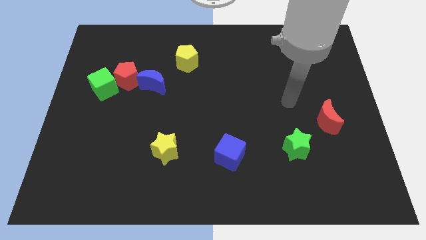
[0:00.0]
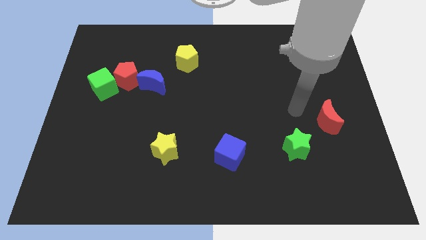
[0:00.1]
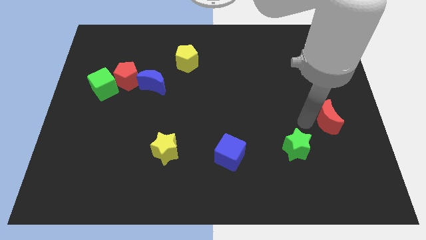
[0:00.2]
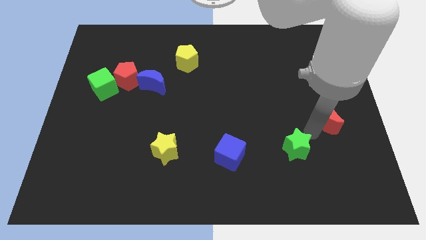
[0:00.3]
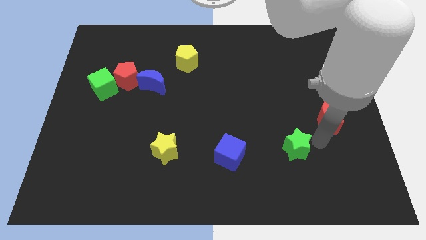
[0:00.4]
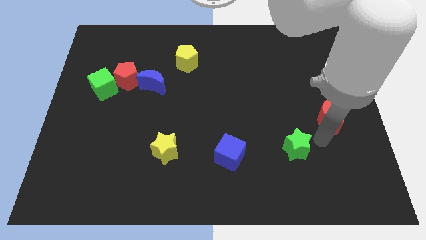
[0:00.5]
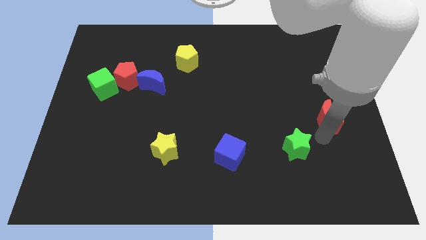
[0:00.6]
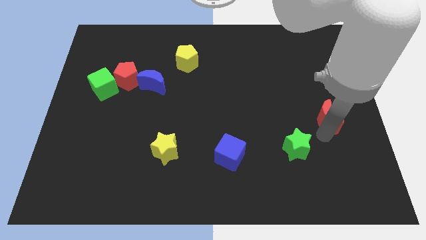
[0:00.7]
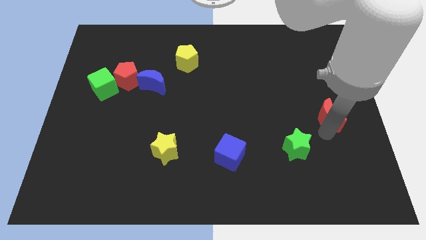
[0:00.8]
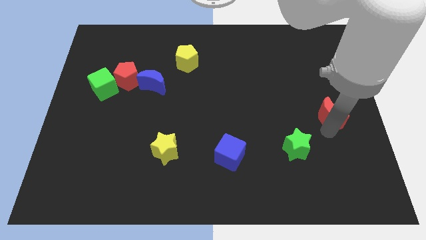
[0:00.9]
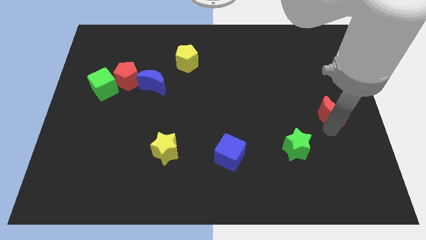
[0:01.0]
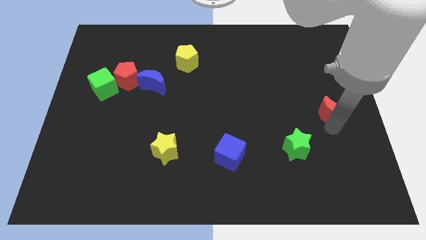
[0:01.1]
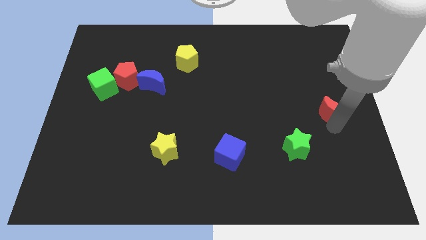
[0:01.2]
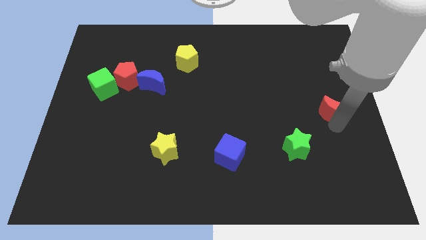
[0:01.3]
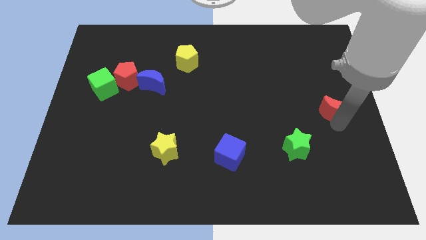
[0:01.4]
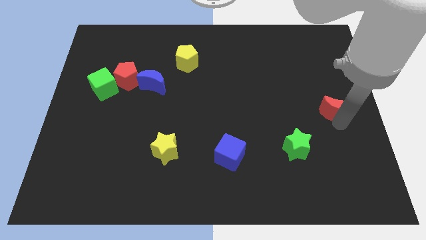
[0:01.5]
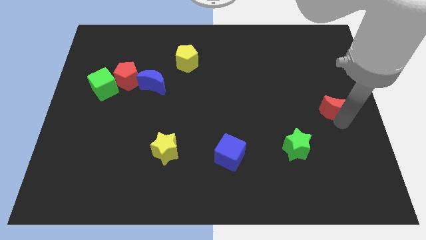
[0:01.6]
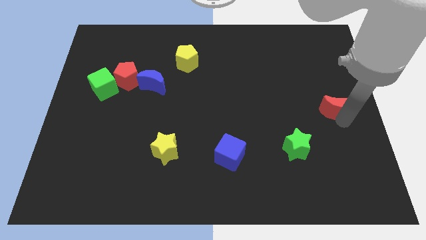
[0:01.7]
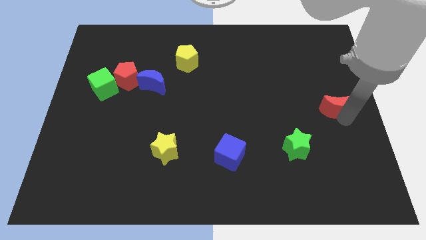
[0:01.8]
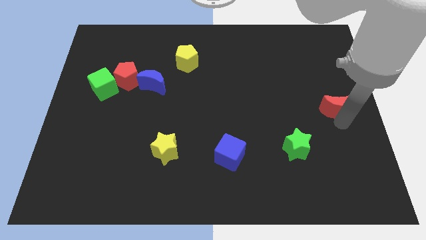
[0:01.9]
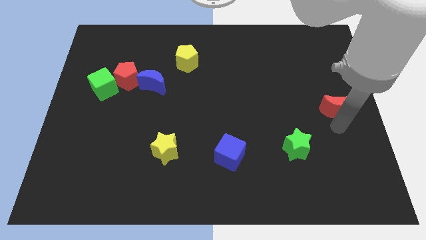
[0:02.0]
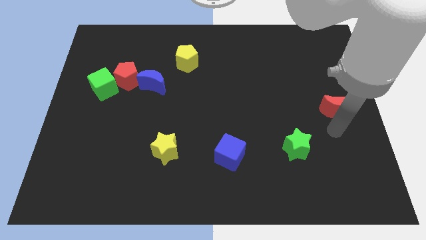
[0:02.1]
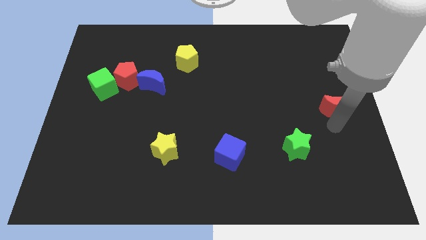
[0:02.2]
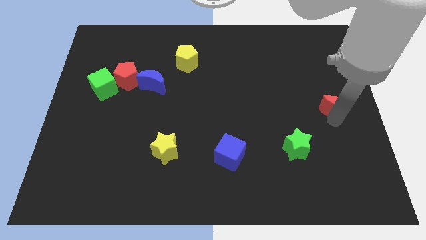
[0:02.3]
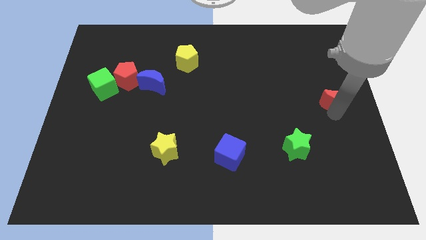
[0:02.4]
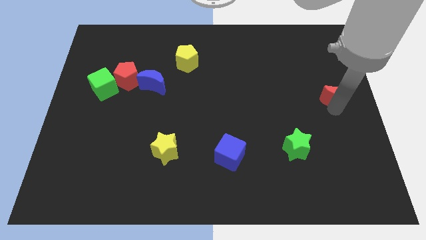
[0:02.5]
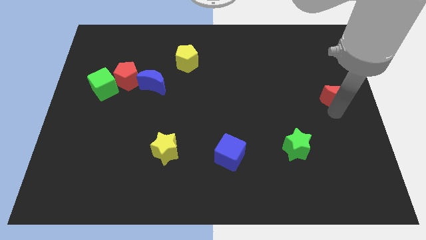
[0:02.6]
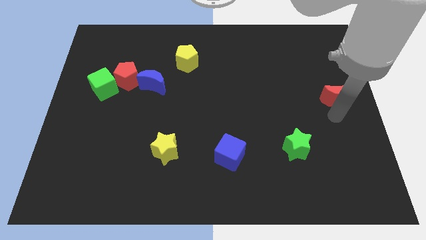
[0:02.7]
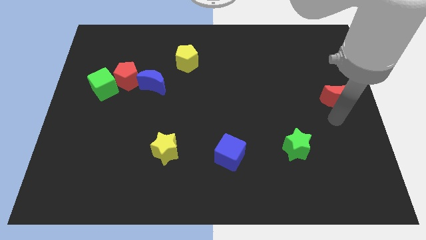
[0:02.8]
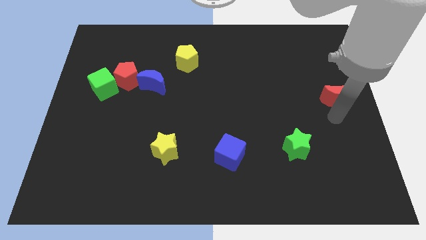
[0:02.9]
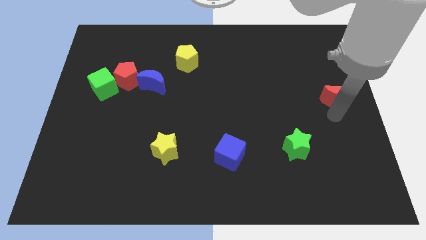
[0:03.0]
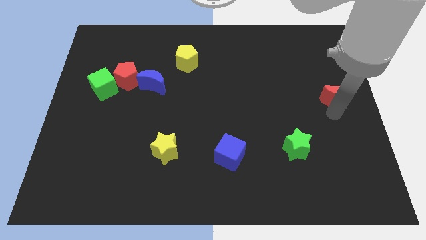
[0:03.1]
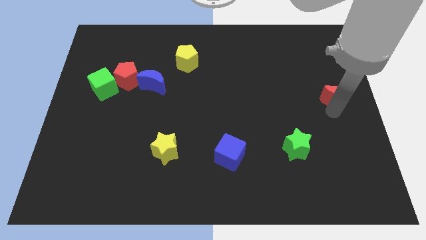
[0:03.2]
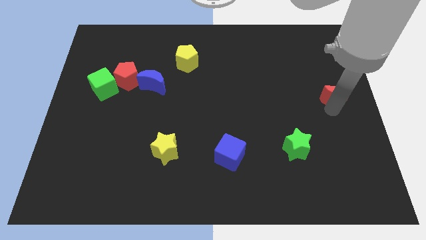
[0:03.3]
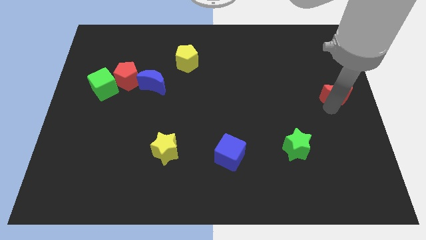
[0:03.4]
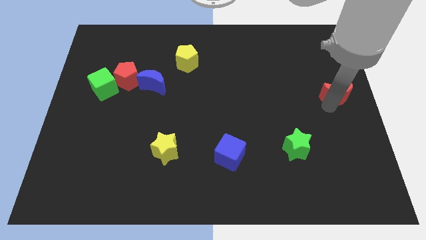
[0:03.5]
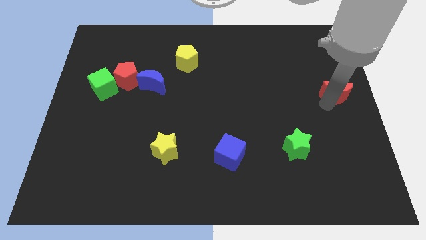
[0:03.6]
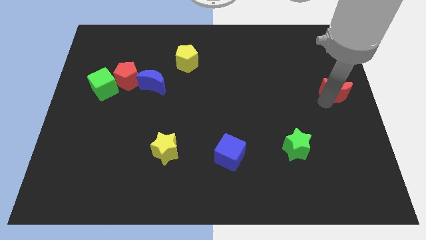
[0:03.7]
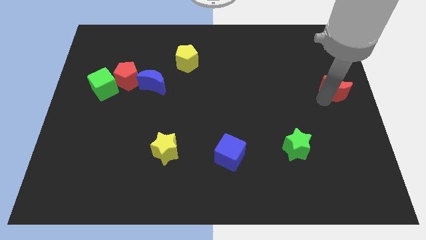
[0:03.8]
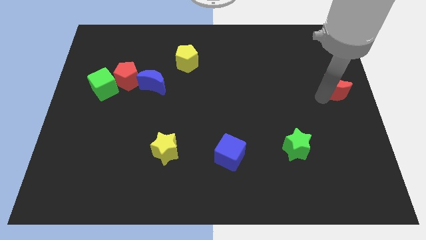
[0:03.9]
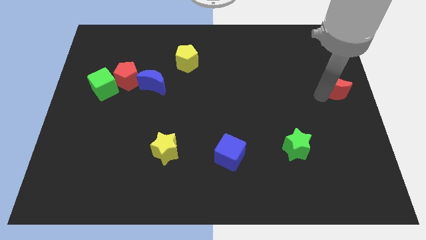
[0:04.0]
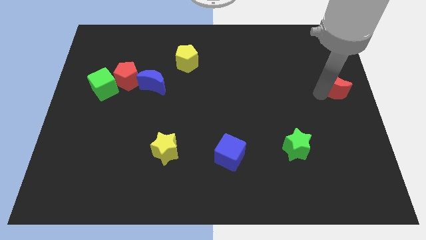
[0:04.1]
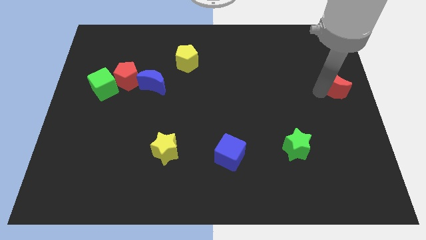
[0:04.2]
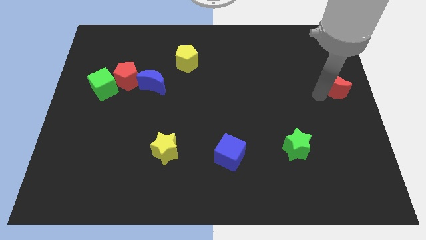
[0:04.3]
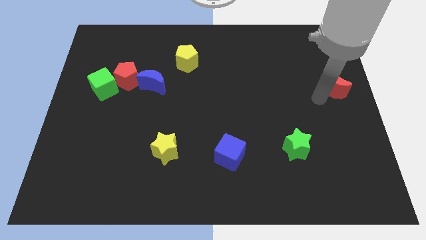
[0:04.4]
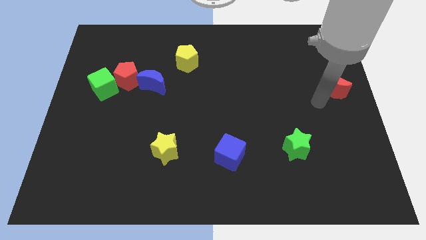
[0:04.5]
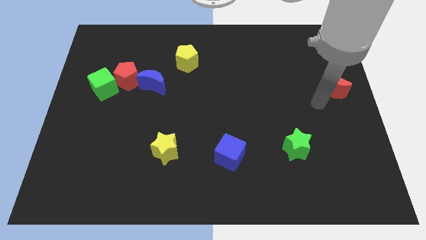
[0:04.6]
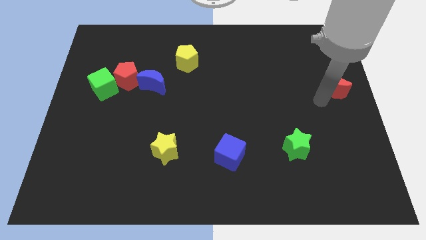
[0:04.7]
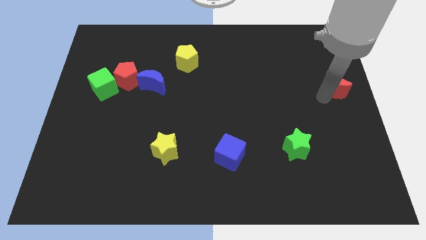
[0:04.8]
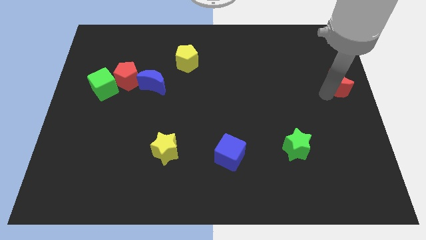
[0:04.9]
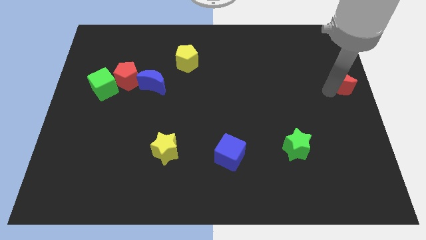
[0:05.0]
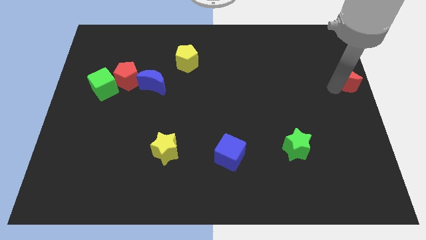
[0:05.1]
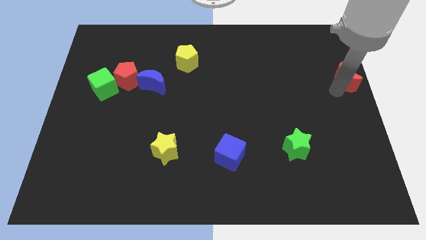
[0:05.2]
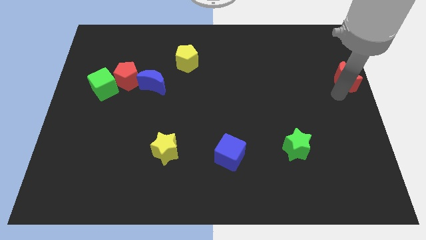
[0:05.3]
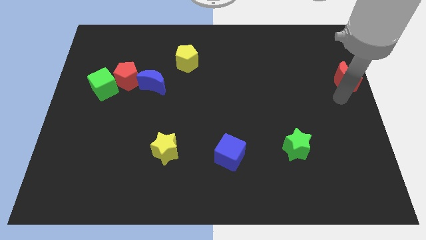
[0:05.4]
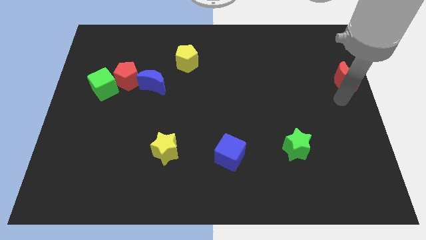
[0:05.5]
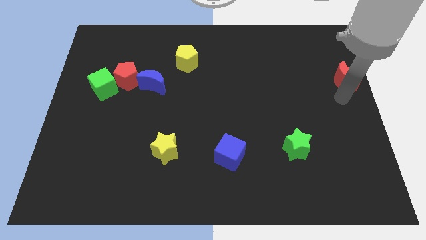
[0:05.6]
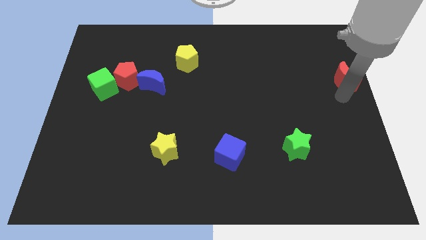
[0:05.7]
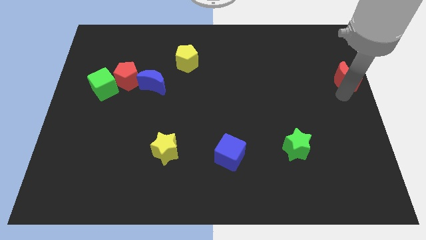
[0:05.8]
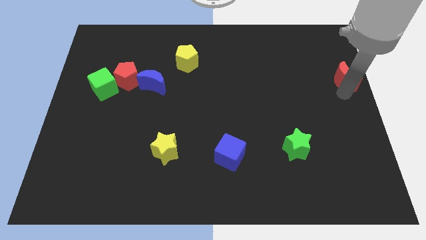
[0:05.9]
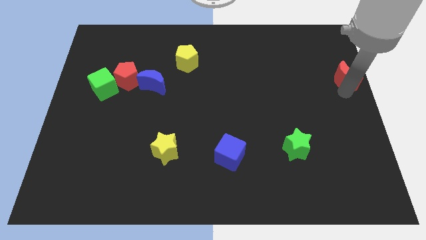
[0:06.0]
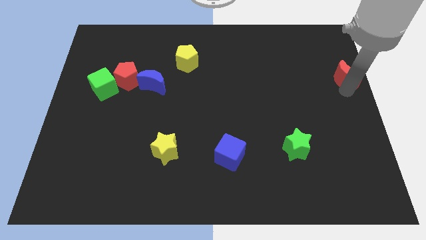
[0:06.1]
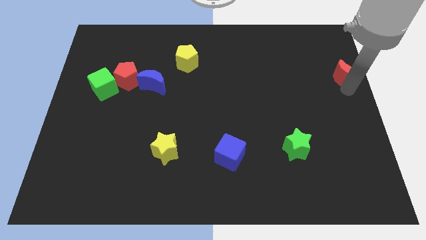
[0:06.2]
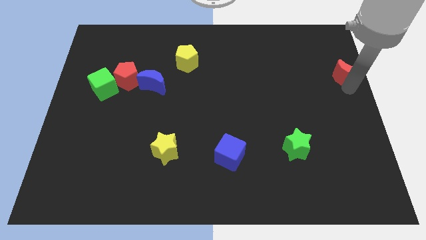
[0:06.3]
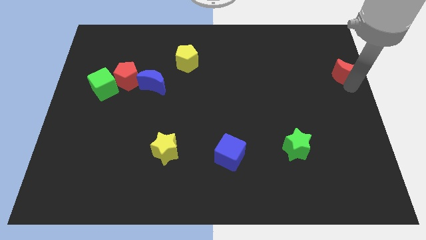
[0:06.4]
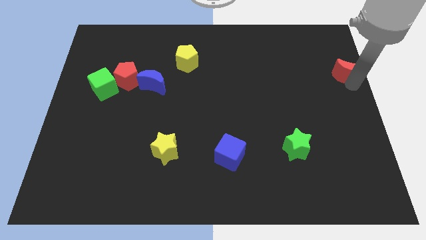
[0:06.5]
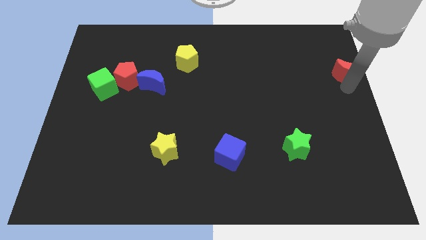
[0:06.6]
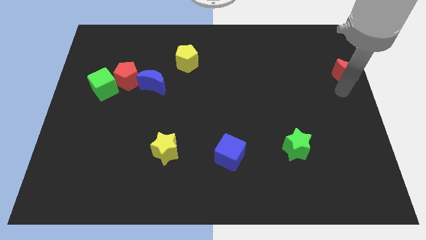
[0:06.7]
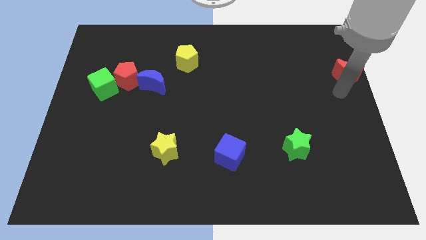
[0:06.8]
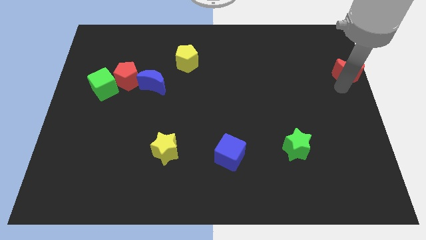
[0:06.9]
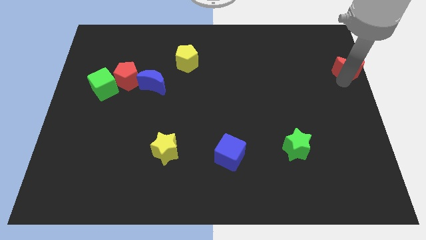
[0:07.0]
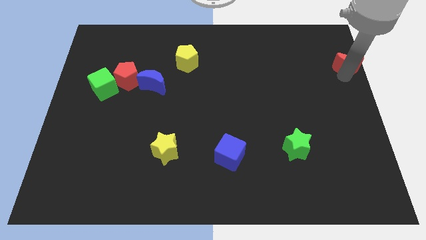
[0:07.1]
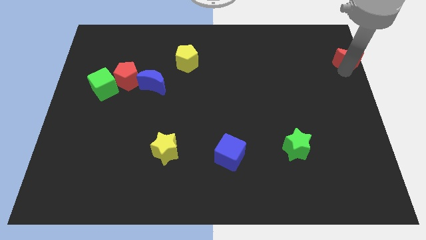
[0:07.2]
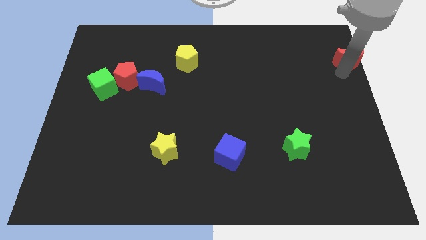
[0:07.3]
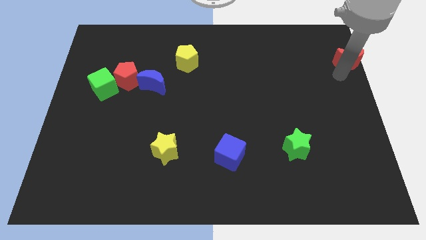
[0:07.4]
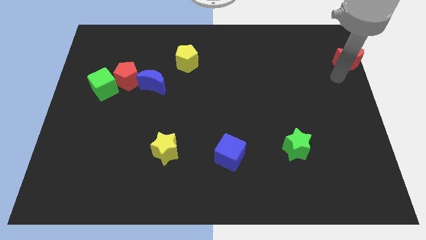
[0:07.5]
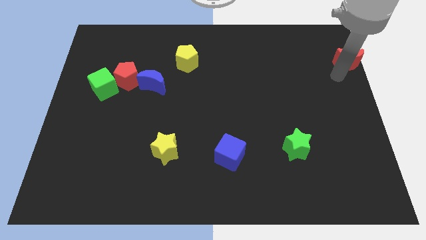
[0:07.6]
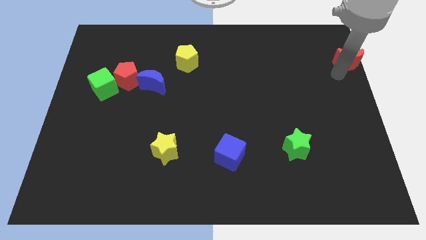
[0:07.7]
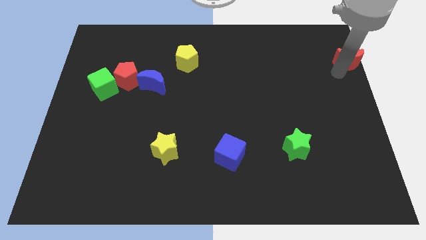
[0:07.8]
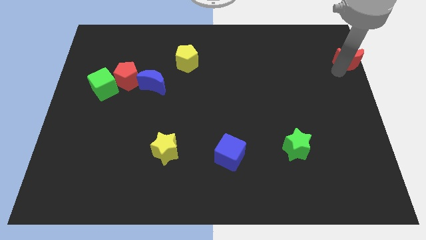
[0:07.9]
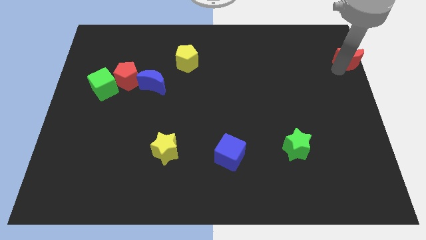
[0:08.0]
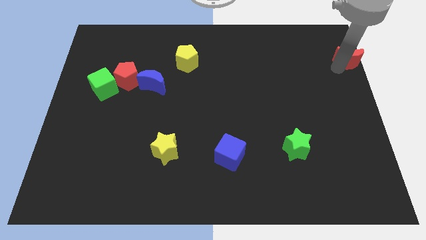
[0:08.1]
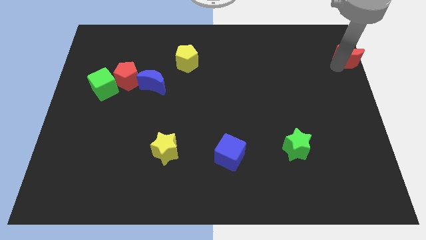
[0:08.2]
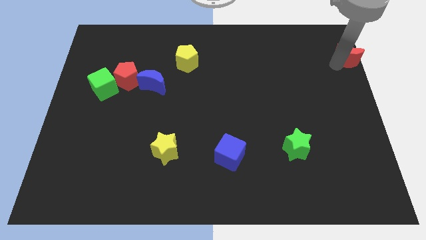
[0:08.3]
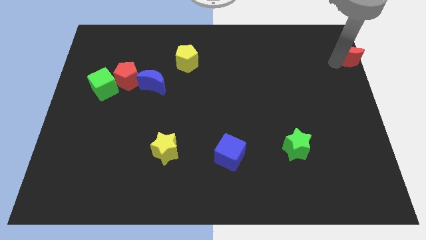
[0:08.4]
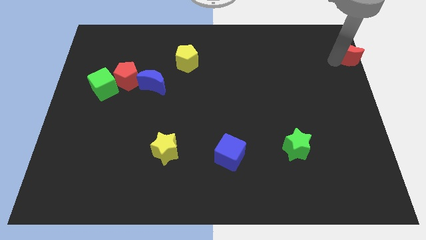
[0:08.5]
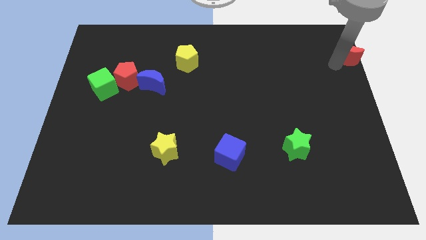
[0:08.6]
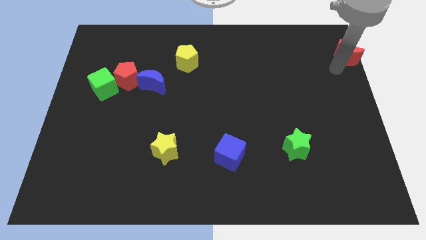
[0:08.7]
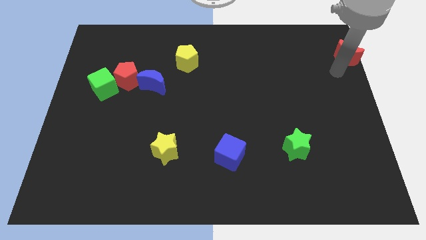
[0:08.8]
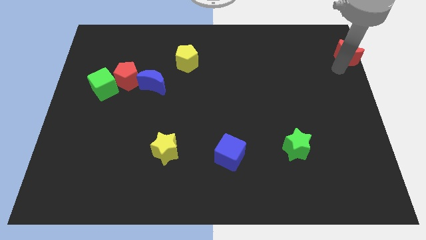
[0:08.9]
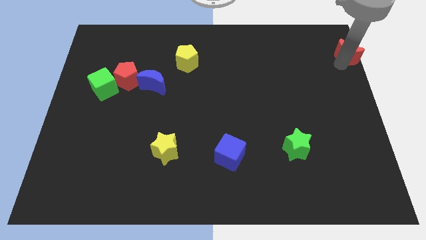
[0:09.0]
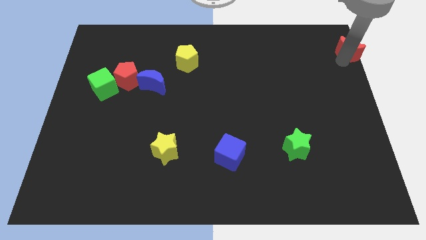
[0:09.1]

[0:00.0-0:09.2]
push the red moon to the upper right corner
